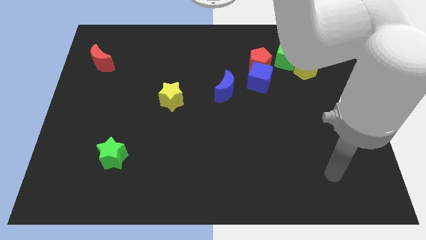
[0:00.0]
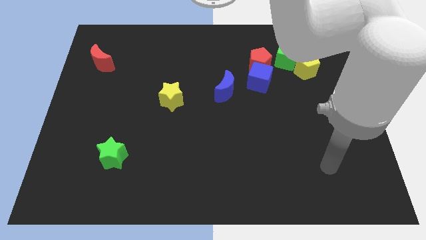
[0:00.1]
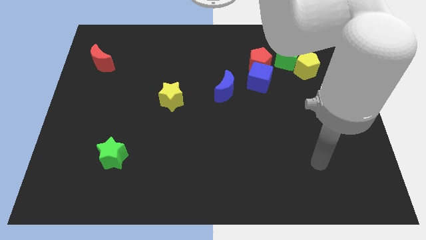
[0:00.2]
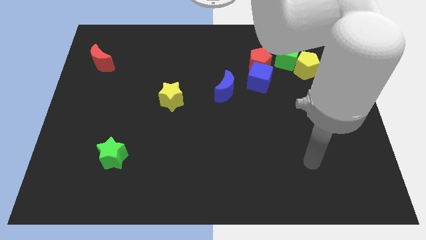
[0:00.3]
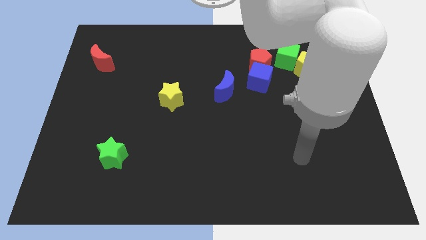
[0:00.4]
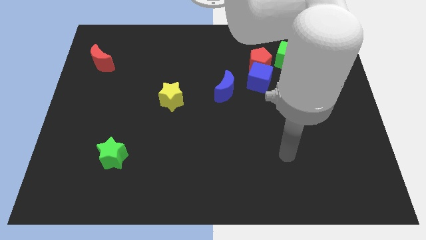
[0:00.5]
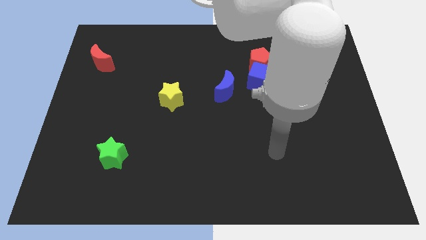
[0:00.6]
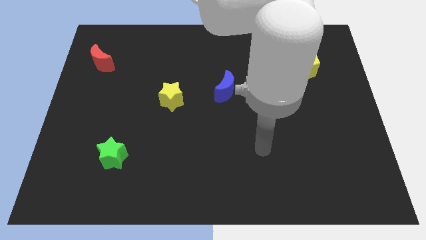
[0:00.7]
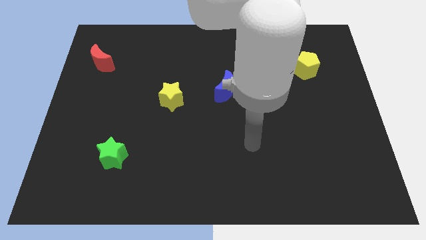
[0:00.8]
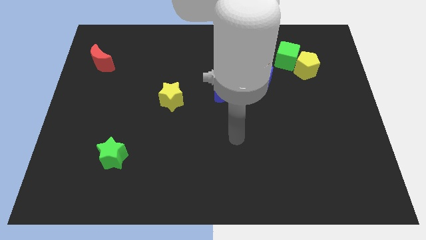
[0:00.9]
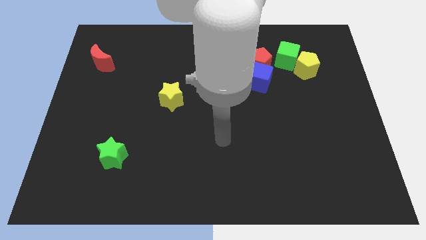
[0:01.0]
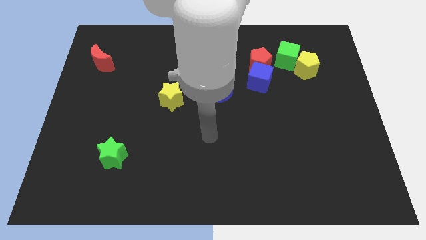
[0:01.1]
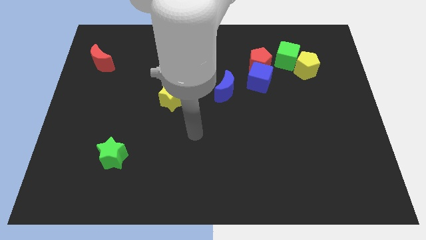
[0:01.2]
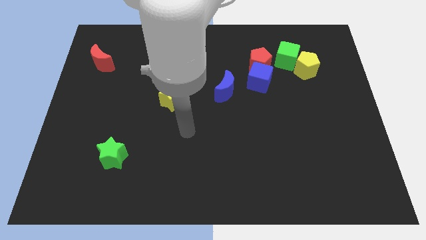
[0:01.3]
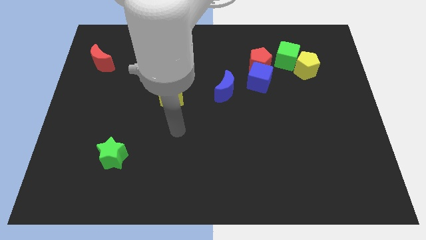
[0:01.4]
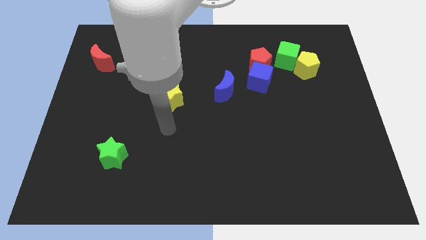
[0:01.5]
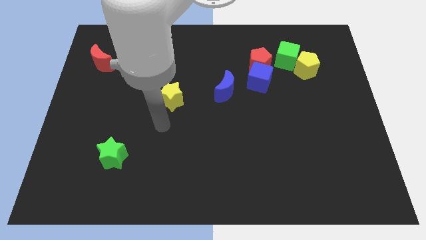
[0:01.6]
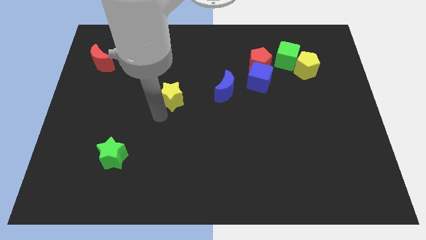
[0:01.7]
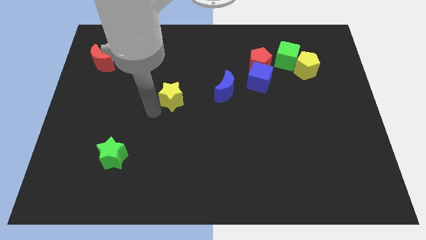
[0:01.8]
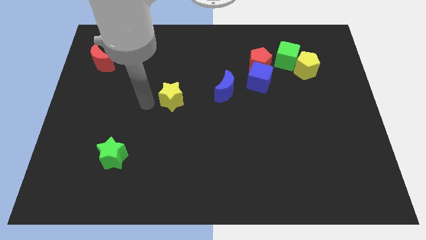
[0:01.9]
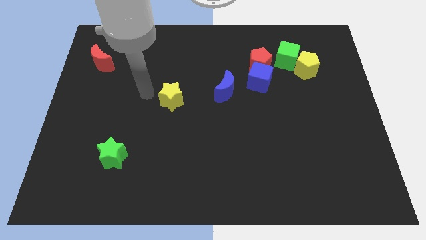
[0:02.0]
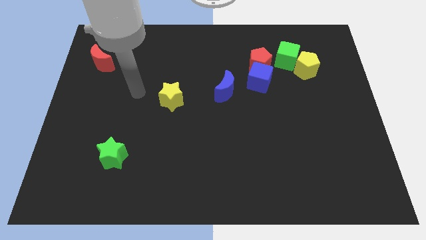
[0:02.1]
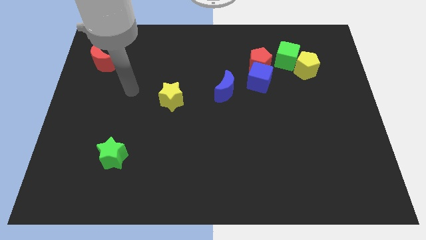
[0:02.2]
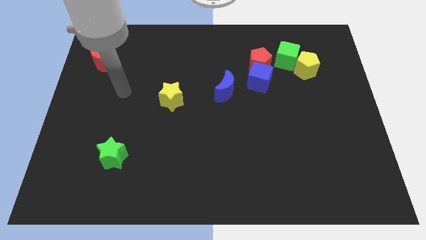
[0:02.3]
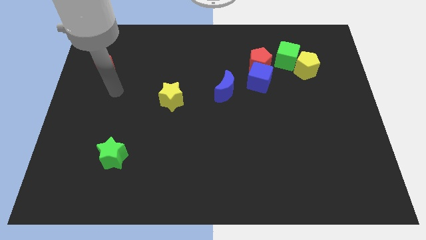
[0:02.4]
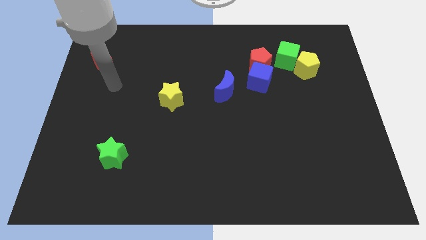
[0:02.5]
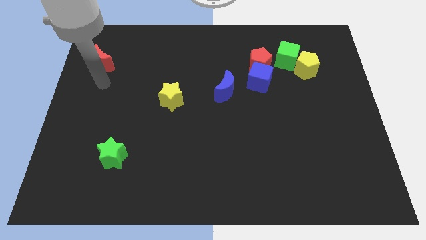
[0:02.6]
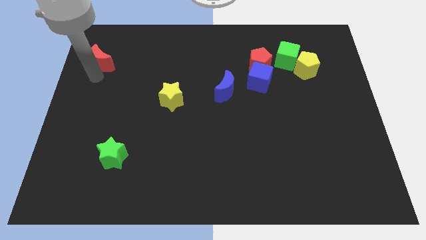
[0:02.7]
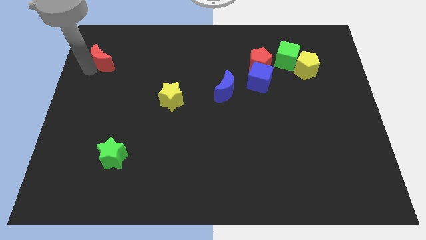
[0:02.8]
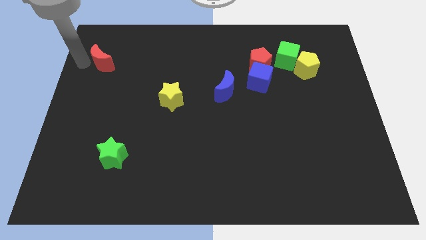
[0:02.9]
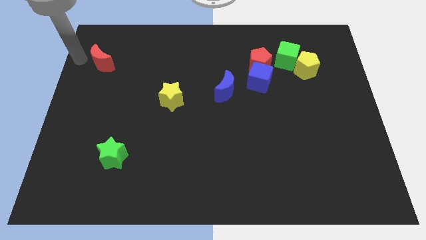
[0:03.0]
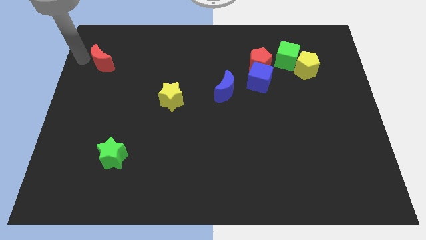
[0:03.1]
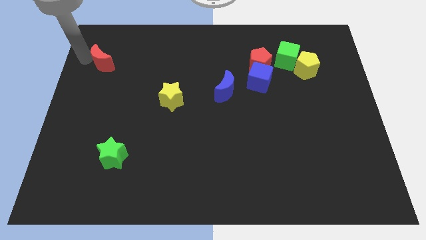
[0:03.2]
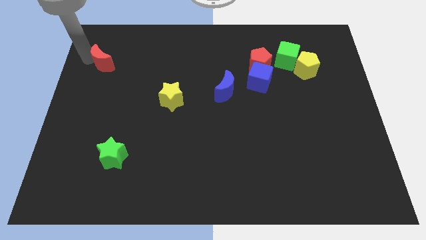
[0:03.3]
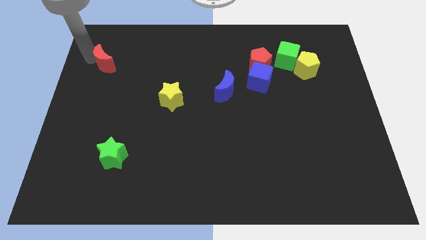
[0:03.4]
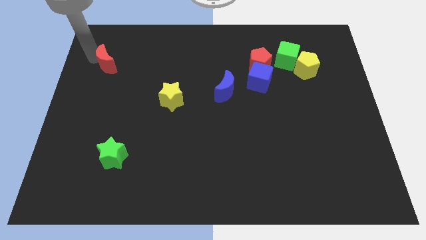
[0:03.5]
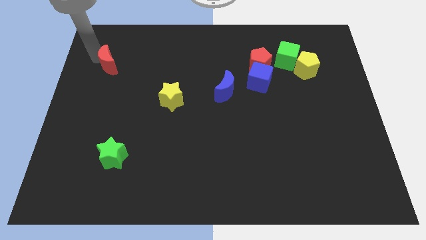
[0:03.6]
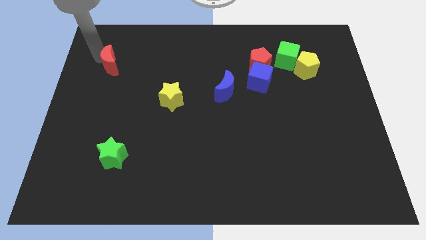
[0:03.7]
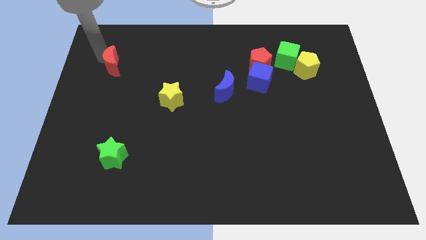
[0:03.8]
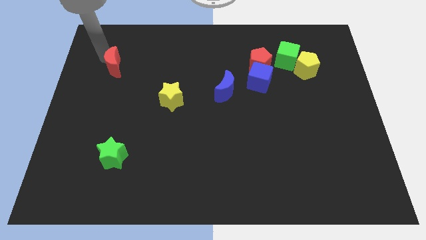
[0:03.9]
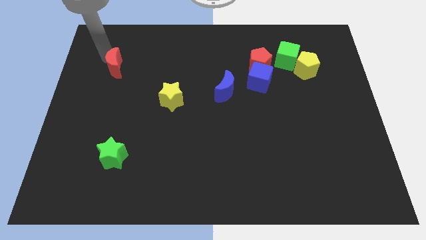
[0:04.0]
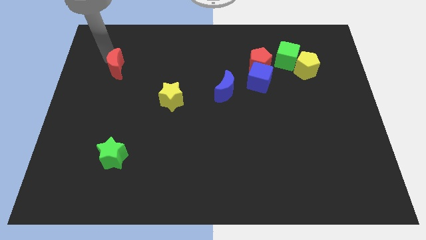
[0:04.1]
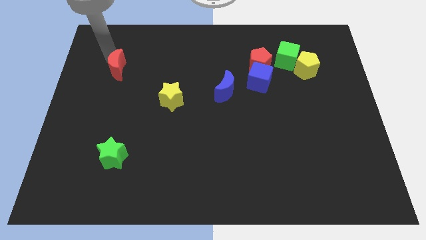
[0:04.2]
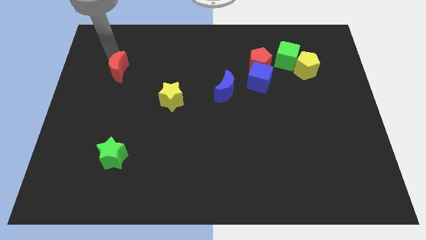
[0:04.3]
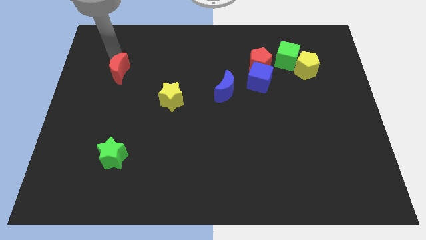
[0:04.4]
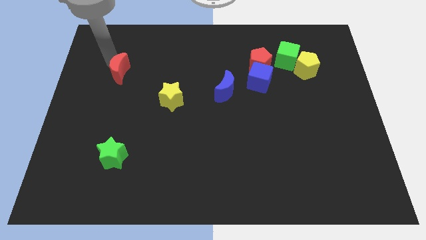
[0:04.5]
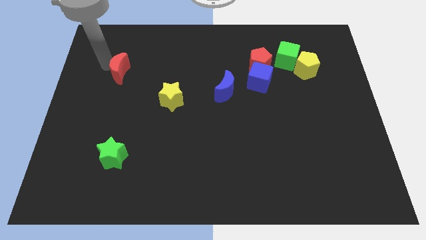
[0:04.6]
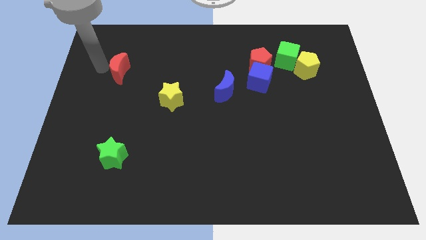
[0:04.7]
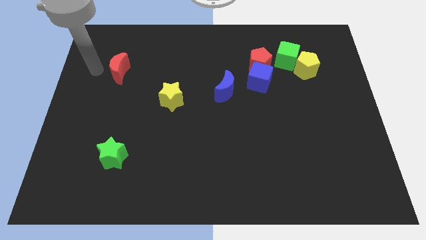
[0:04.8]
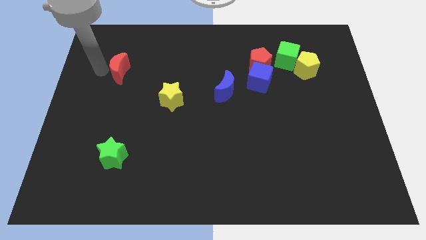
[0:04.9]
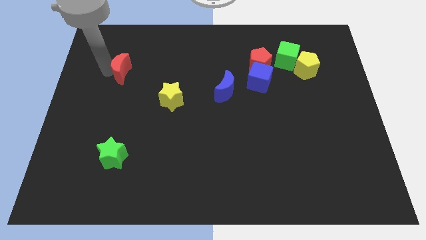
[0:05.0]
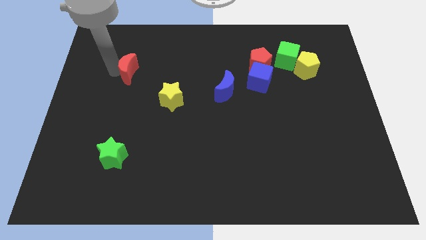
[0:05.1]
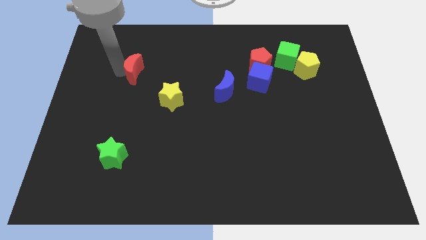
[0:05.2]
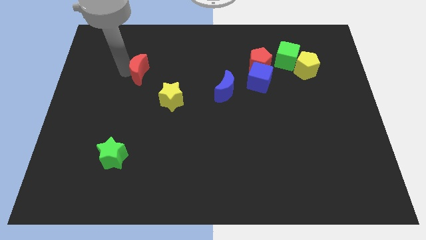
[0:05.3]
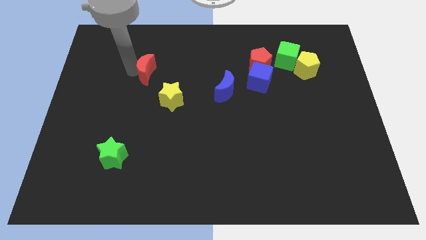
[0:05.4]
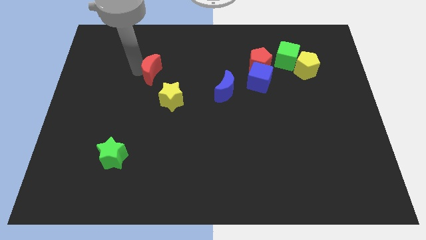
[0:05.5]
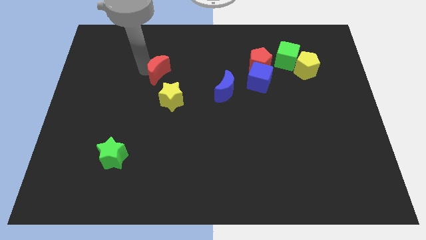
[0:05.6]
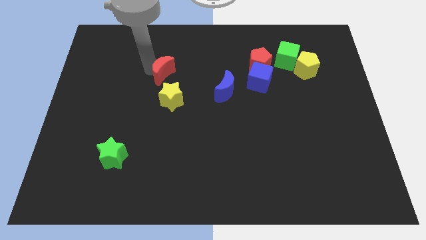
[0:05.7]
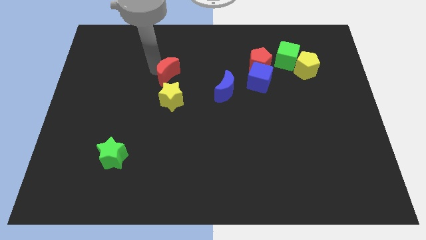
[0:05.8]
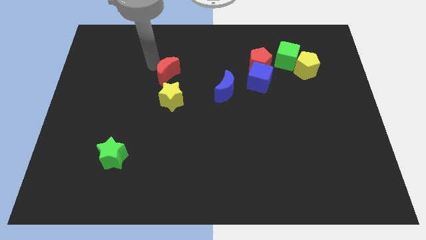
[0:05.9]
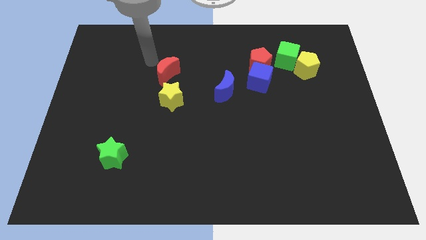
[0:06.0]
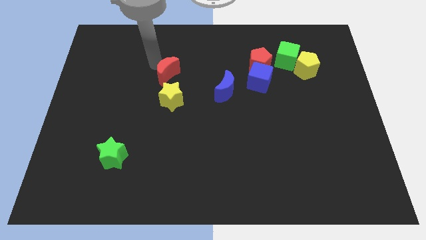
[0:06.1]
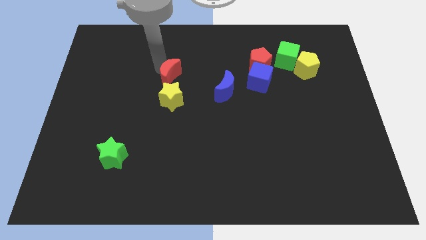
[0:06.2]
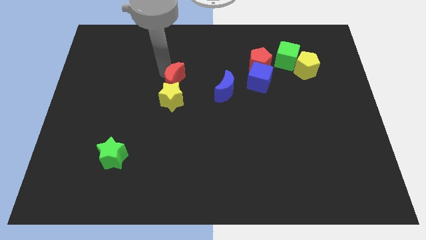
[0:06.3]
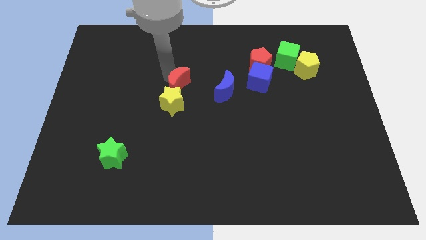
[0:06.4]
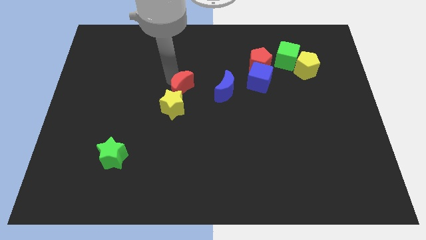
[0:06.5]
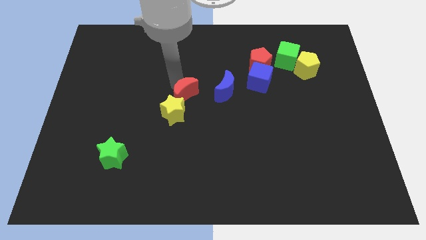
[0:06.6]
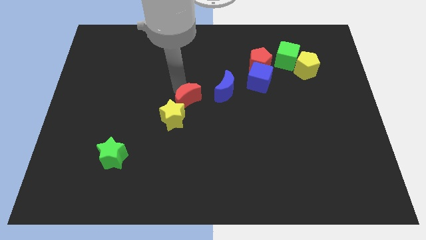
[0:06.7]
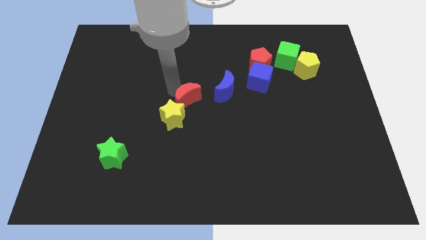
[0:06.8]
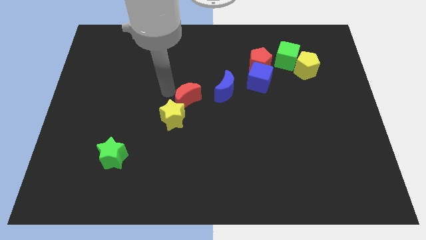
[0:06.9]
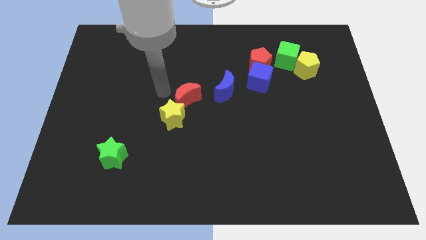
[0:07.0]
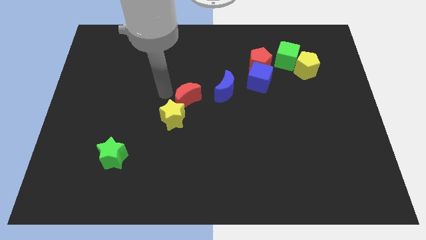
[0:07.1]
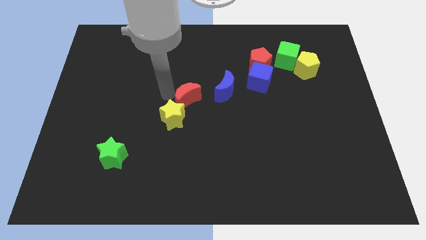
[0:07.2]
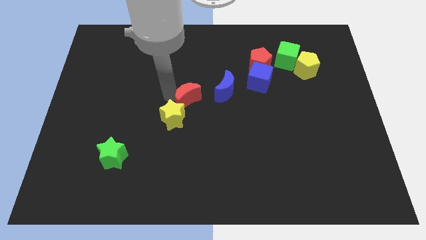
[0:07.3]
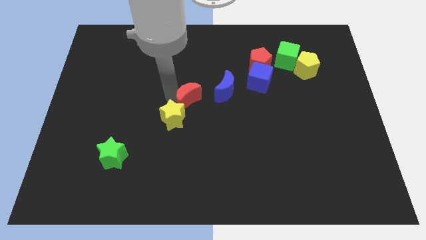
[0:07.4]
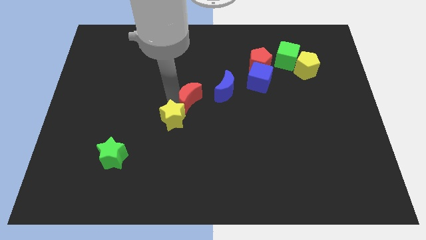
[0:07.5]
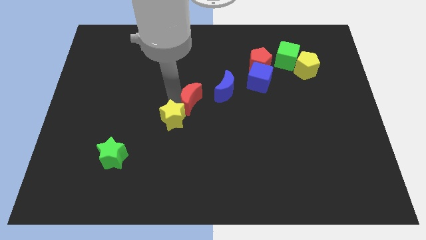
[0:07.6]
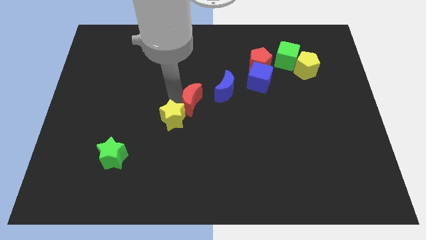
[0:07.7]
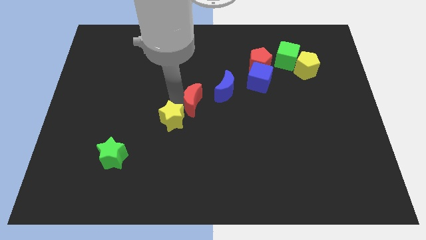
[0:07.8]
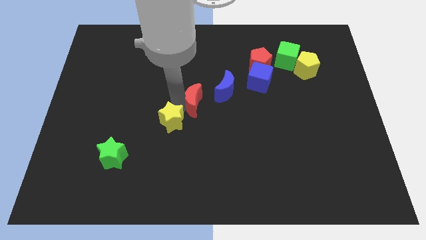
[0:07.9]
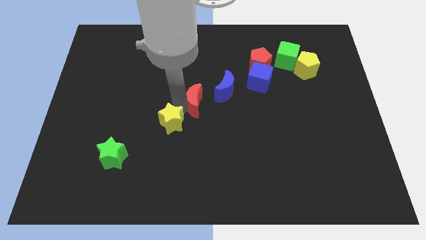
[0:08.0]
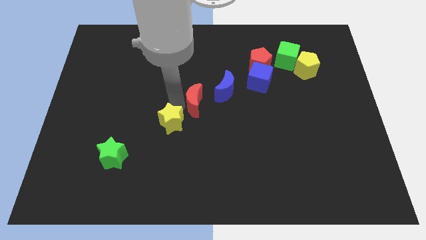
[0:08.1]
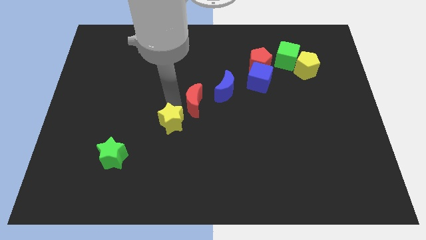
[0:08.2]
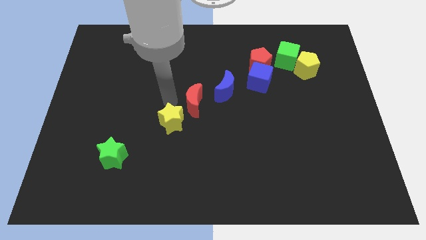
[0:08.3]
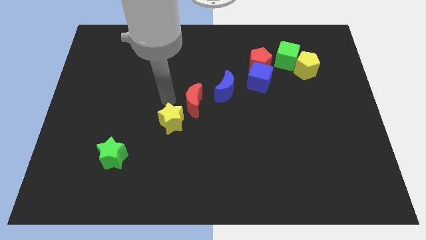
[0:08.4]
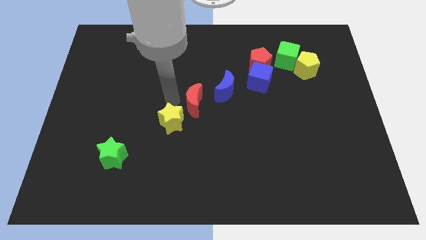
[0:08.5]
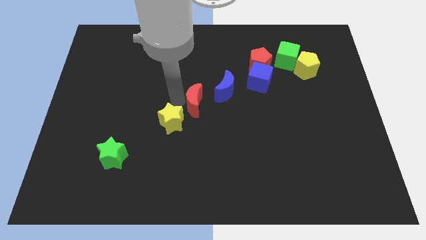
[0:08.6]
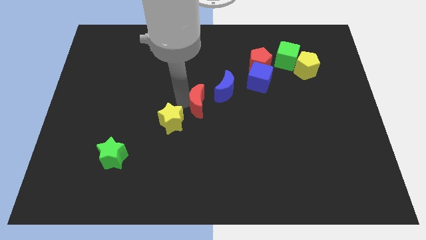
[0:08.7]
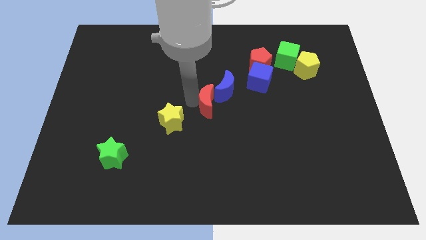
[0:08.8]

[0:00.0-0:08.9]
put the red moon below the blue moon
